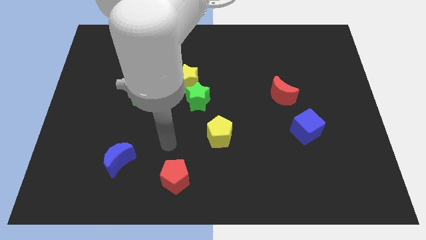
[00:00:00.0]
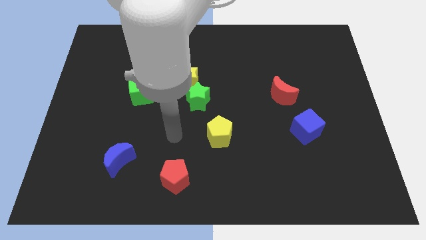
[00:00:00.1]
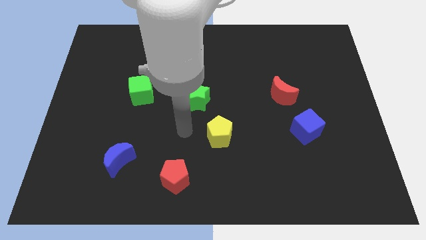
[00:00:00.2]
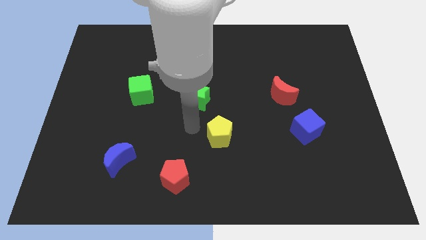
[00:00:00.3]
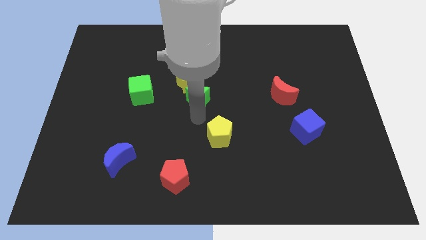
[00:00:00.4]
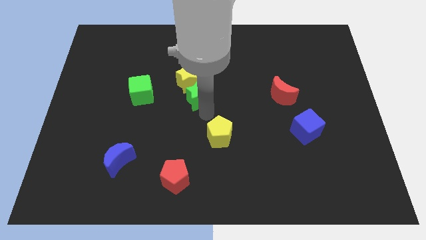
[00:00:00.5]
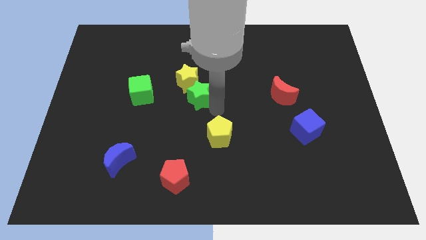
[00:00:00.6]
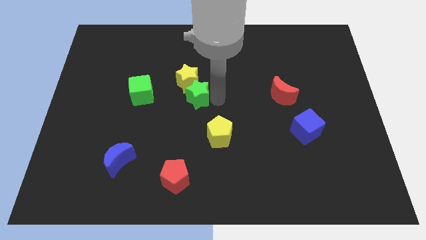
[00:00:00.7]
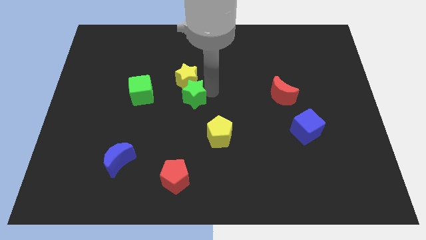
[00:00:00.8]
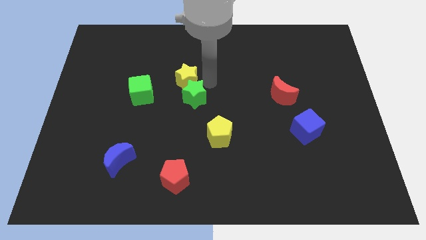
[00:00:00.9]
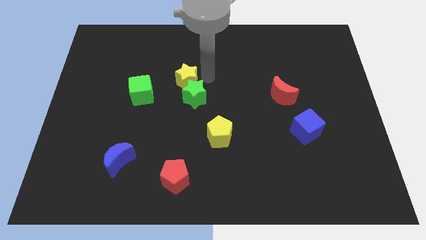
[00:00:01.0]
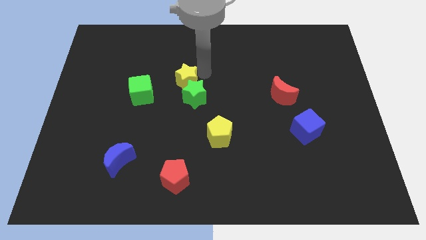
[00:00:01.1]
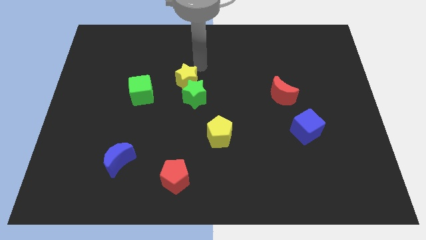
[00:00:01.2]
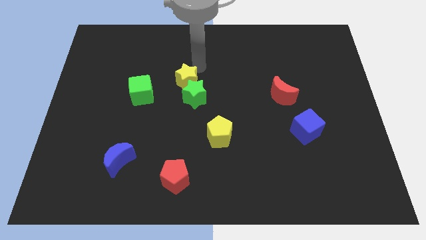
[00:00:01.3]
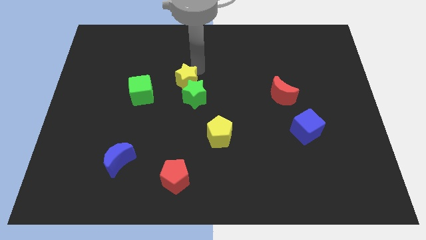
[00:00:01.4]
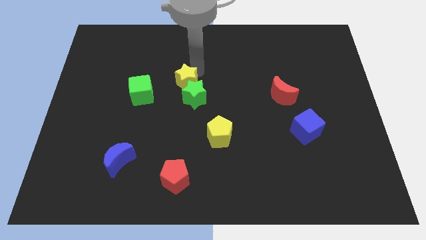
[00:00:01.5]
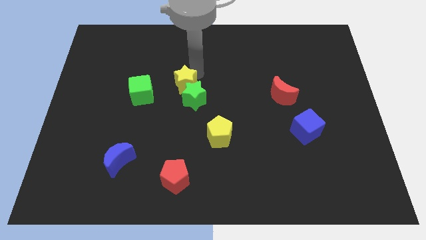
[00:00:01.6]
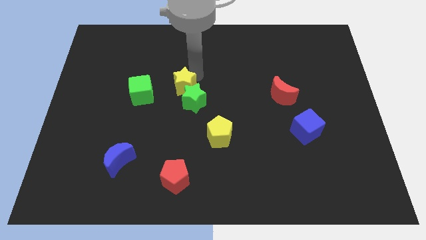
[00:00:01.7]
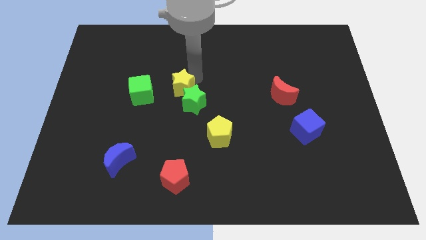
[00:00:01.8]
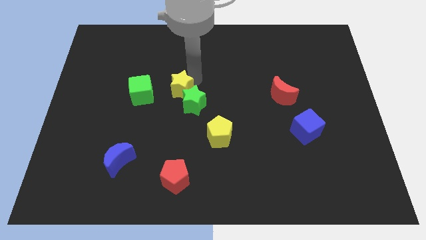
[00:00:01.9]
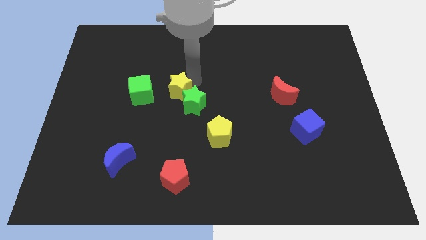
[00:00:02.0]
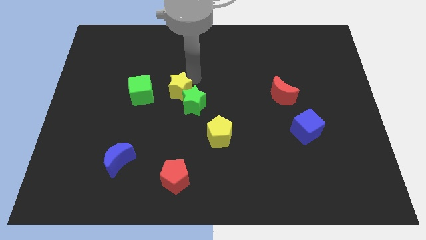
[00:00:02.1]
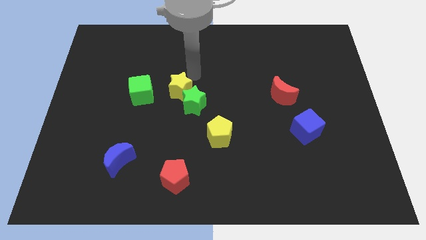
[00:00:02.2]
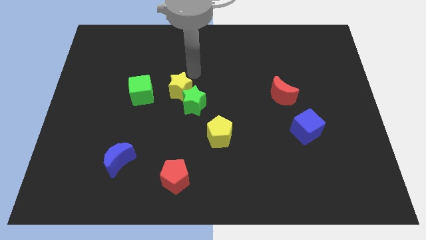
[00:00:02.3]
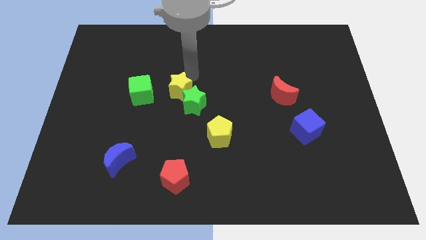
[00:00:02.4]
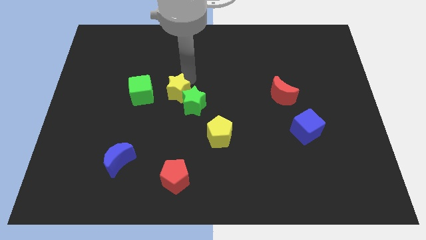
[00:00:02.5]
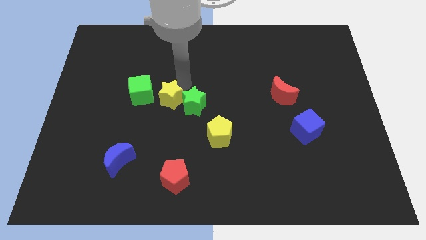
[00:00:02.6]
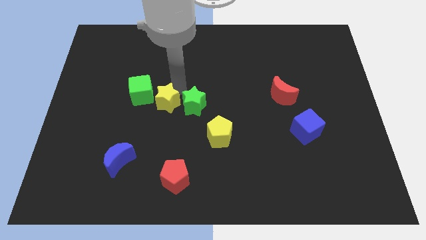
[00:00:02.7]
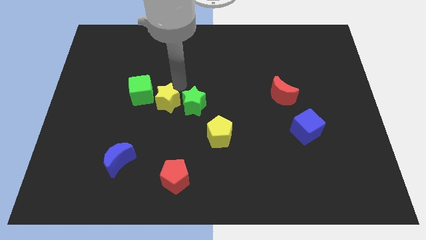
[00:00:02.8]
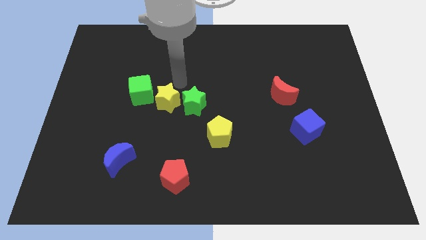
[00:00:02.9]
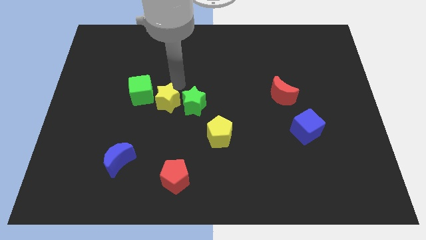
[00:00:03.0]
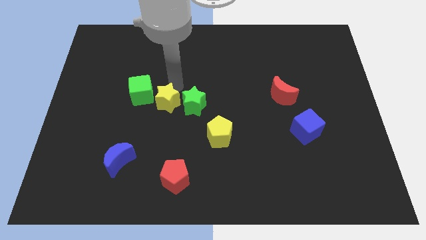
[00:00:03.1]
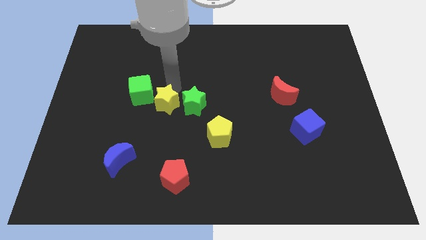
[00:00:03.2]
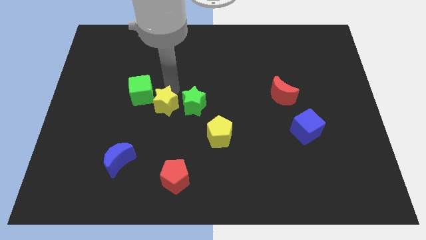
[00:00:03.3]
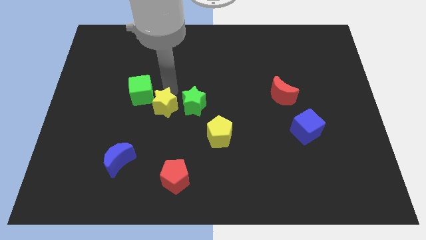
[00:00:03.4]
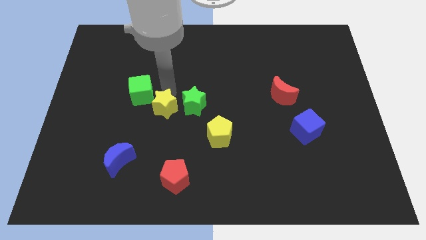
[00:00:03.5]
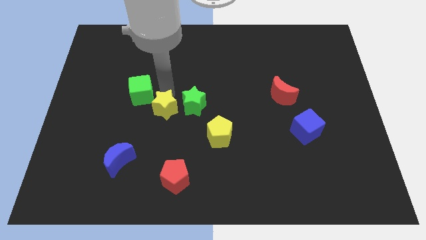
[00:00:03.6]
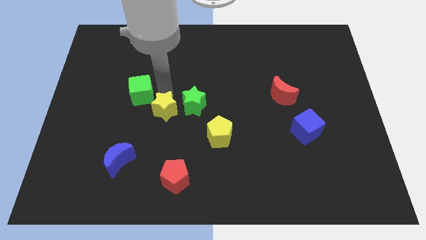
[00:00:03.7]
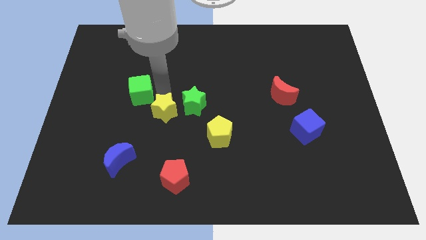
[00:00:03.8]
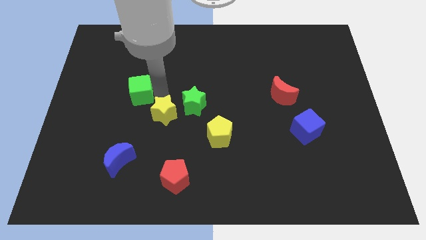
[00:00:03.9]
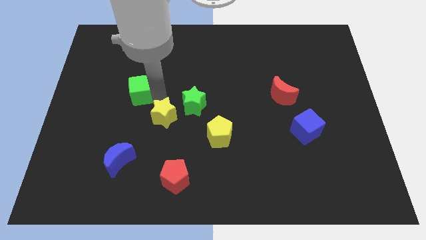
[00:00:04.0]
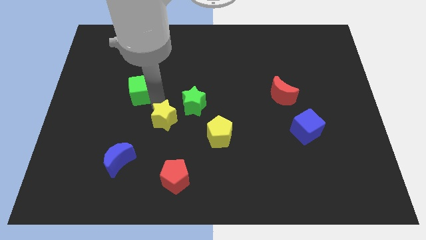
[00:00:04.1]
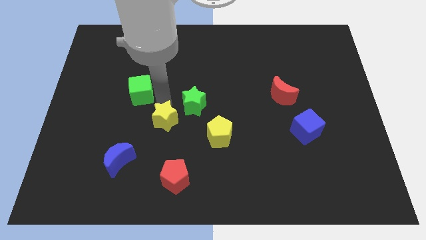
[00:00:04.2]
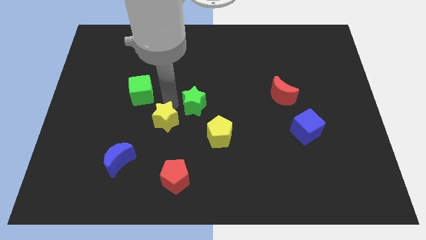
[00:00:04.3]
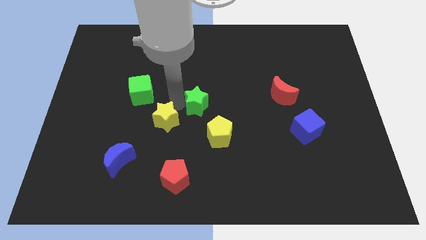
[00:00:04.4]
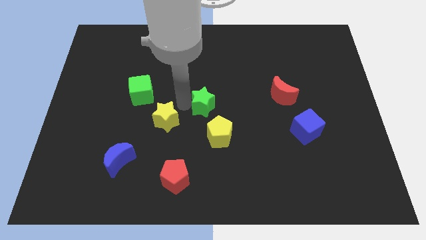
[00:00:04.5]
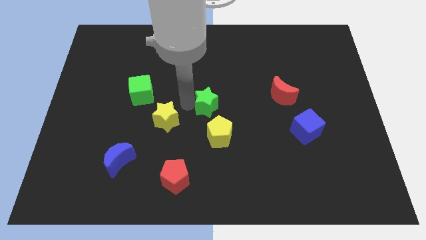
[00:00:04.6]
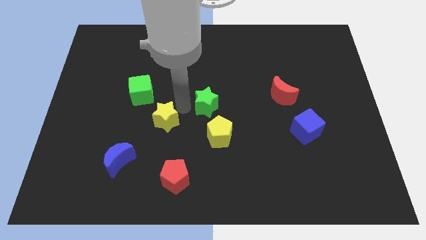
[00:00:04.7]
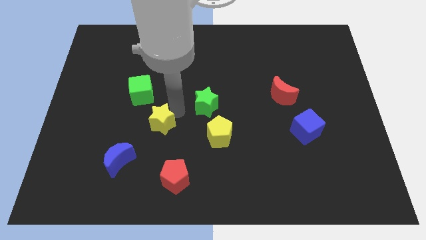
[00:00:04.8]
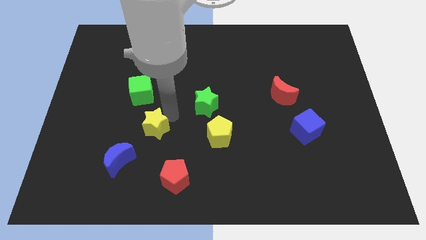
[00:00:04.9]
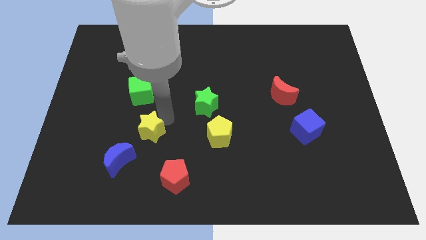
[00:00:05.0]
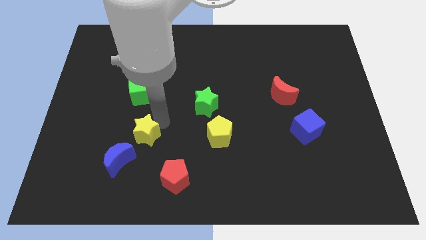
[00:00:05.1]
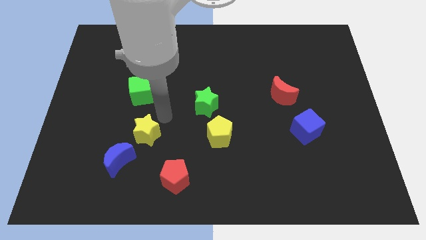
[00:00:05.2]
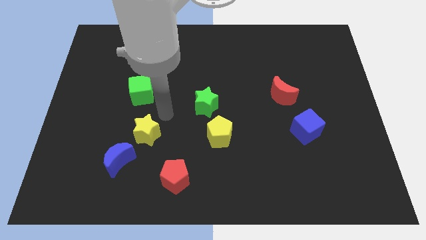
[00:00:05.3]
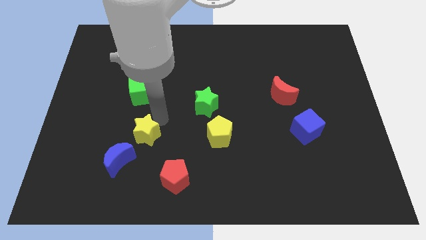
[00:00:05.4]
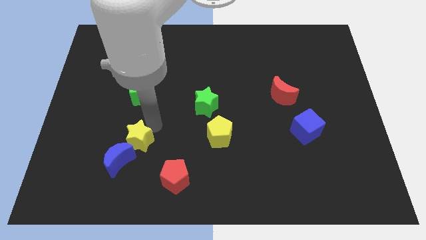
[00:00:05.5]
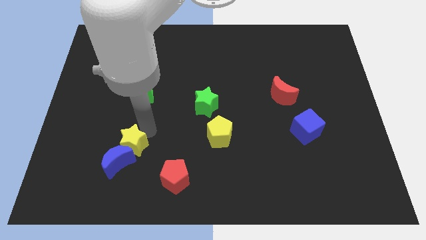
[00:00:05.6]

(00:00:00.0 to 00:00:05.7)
put the yellow star to the blue moon

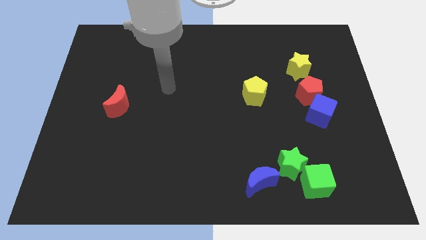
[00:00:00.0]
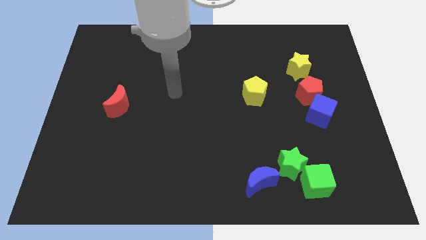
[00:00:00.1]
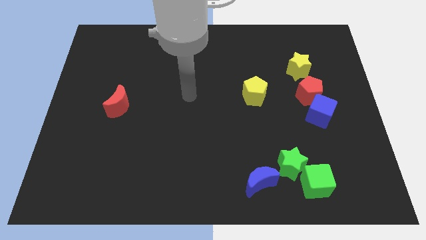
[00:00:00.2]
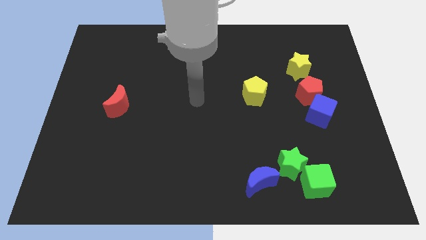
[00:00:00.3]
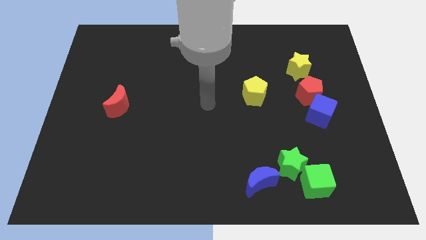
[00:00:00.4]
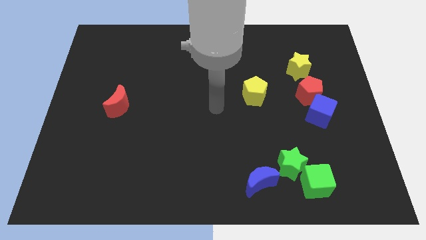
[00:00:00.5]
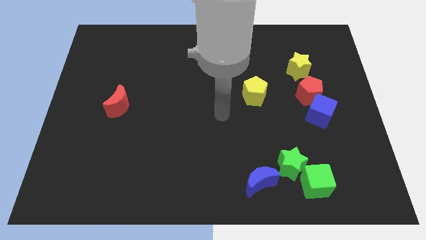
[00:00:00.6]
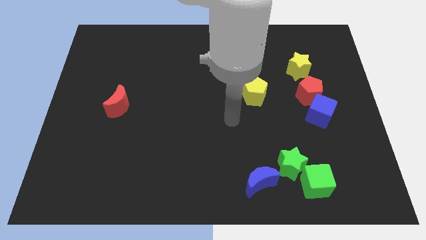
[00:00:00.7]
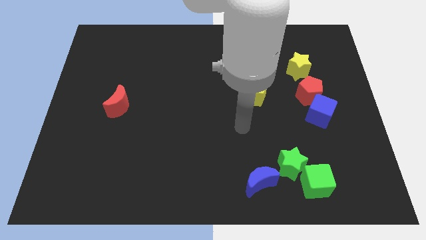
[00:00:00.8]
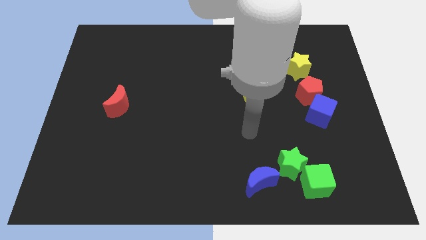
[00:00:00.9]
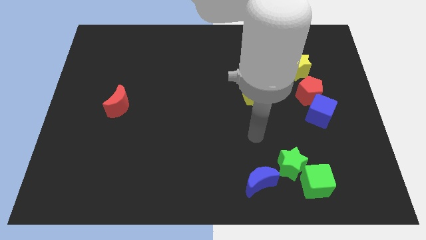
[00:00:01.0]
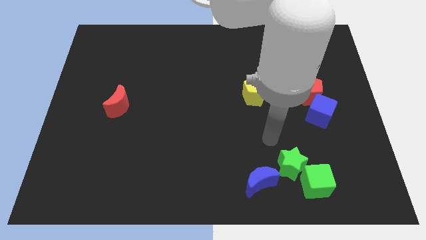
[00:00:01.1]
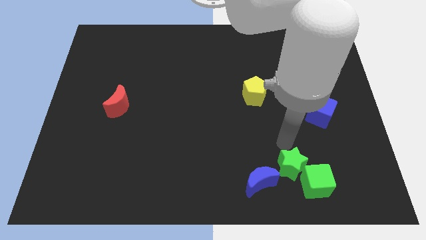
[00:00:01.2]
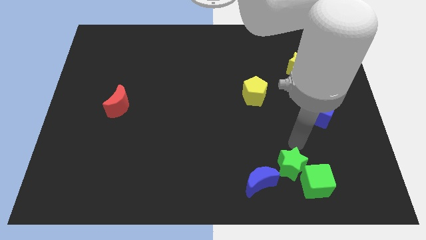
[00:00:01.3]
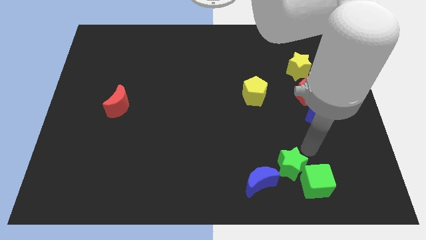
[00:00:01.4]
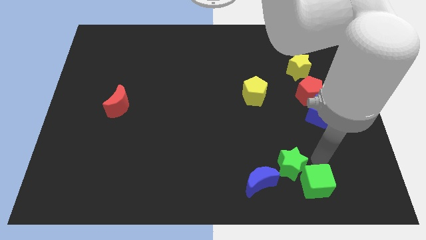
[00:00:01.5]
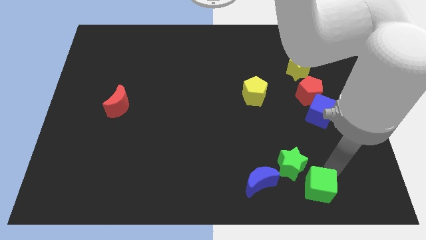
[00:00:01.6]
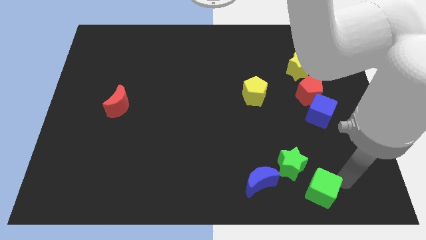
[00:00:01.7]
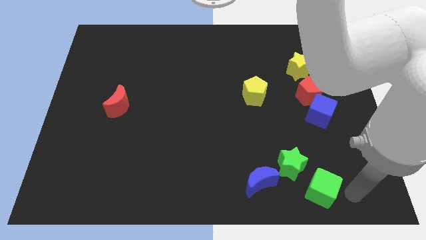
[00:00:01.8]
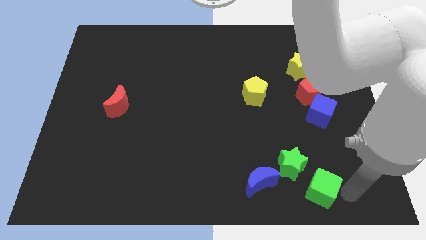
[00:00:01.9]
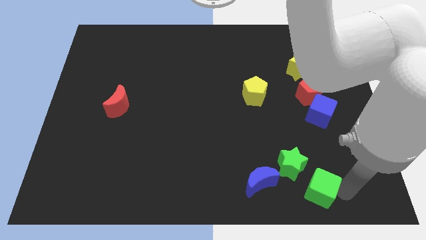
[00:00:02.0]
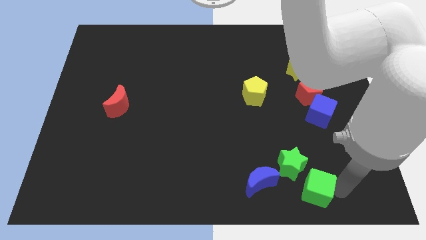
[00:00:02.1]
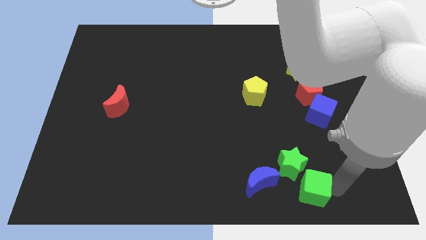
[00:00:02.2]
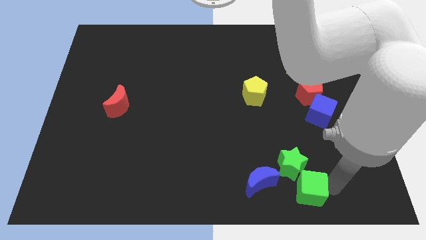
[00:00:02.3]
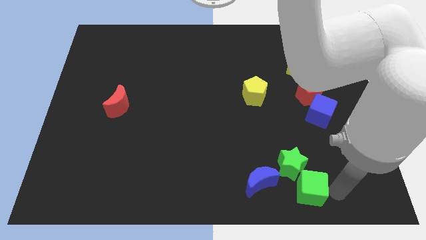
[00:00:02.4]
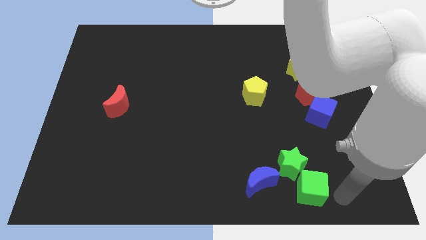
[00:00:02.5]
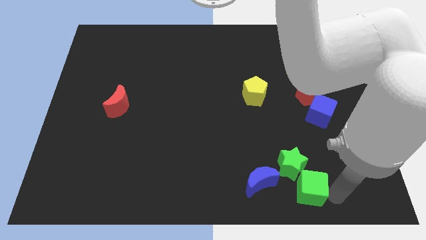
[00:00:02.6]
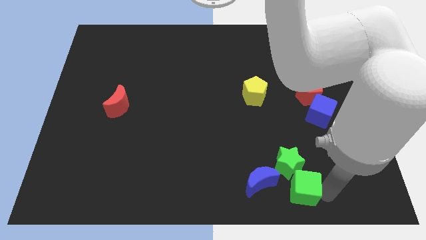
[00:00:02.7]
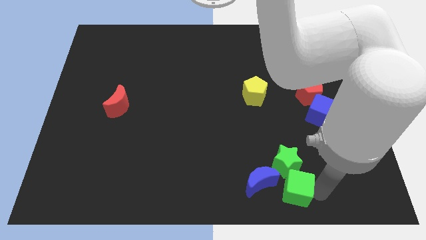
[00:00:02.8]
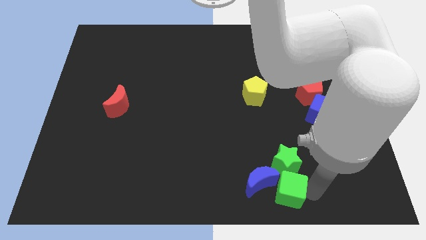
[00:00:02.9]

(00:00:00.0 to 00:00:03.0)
move the green cube to the blue moon
